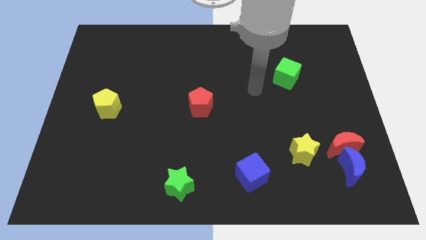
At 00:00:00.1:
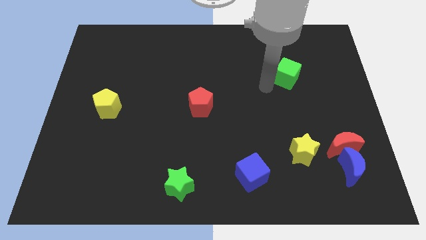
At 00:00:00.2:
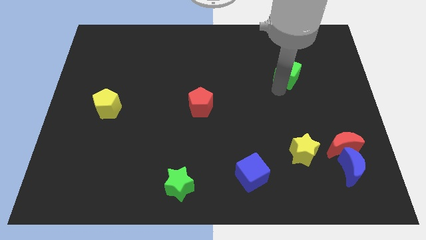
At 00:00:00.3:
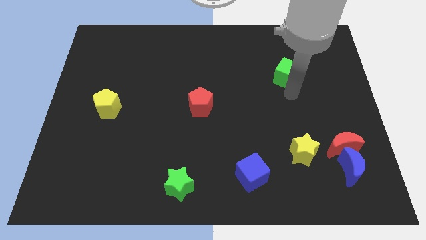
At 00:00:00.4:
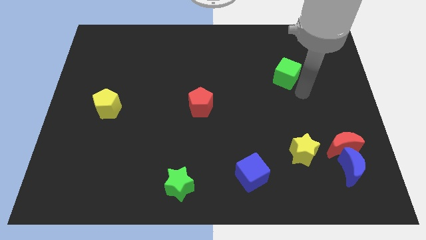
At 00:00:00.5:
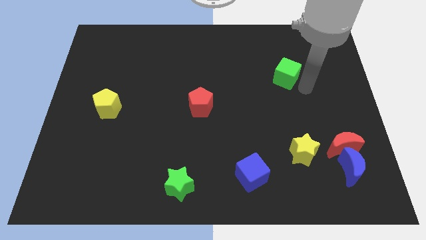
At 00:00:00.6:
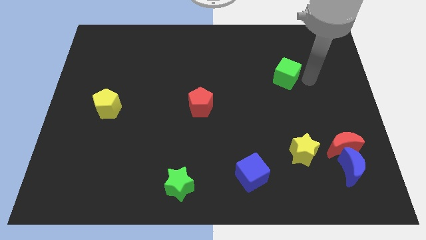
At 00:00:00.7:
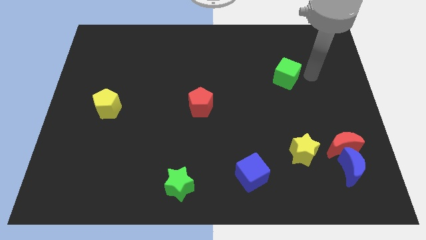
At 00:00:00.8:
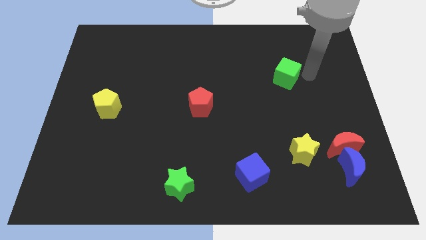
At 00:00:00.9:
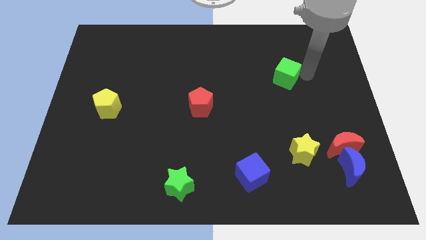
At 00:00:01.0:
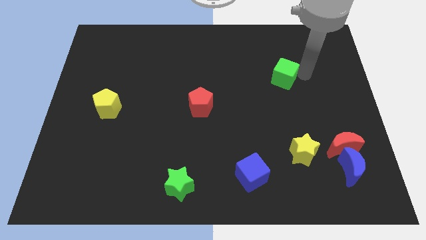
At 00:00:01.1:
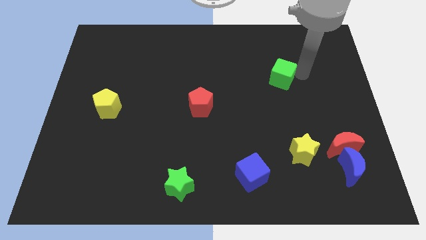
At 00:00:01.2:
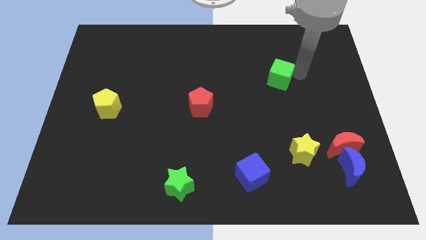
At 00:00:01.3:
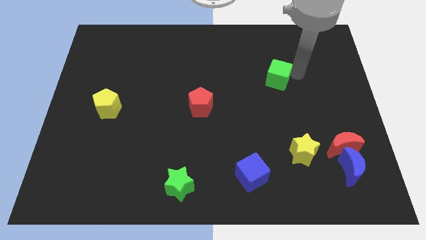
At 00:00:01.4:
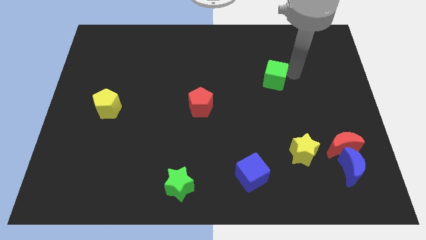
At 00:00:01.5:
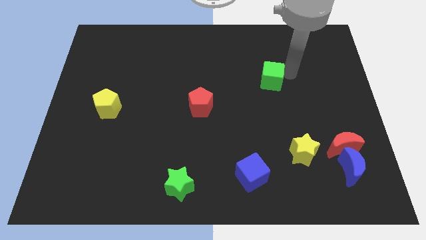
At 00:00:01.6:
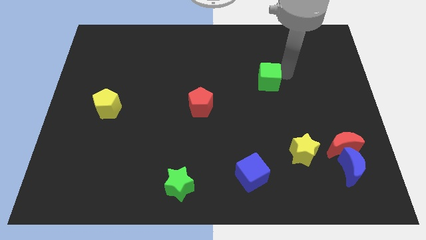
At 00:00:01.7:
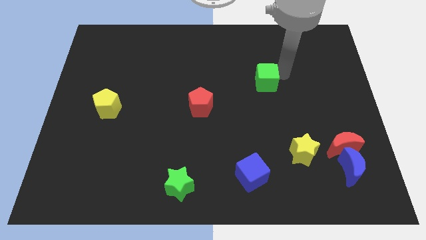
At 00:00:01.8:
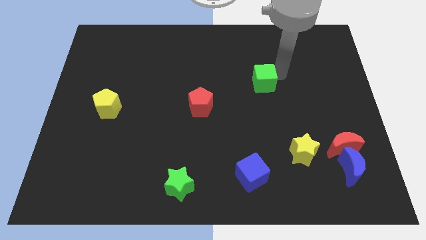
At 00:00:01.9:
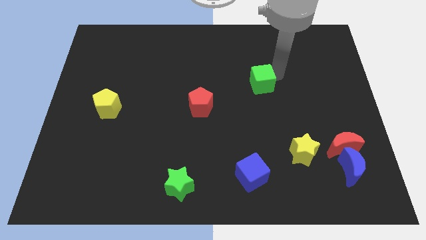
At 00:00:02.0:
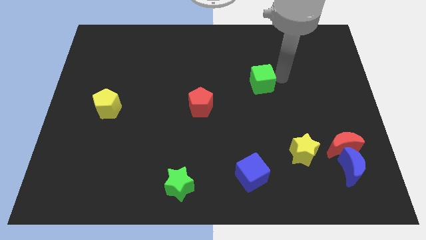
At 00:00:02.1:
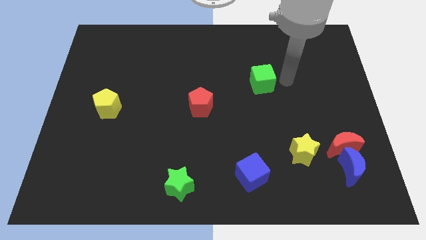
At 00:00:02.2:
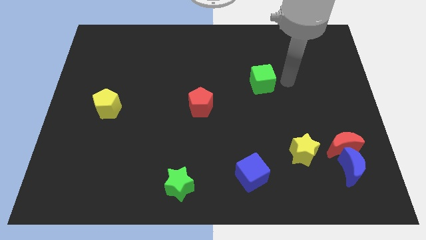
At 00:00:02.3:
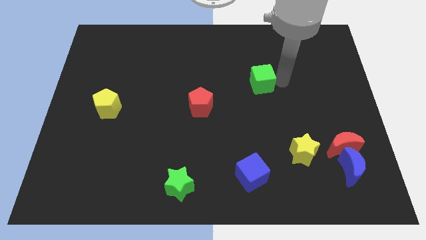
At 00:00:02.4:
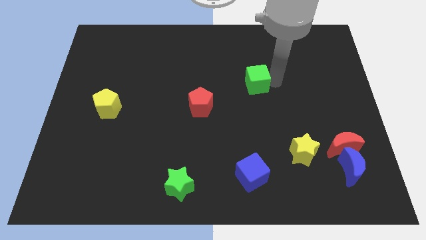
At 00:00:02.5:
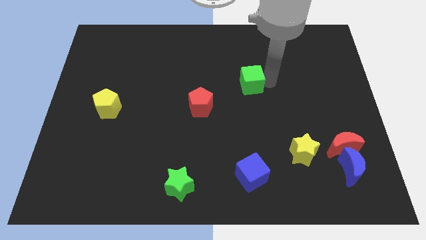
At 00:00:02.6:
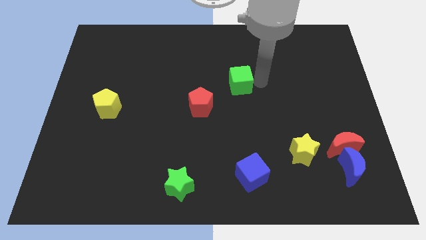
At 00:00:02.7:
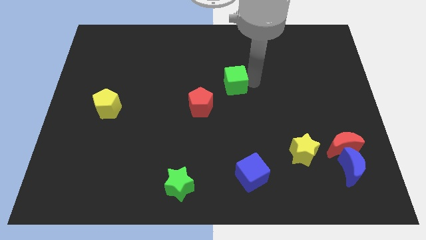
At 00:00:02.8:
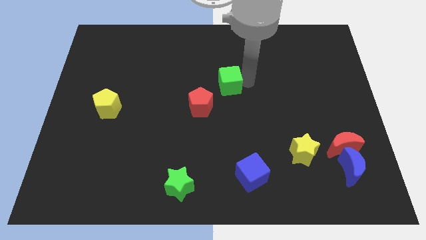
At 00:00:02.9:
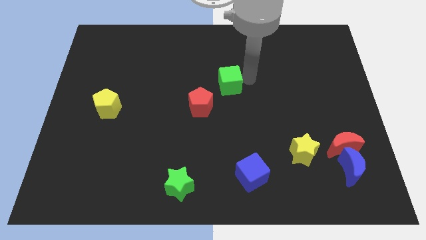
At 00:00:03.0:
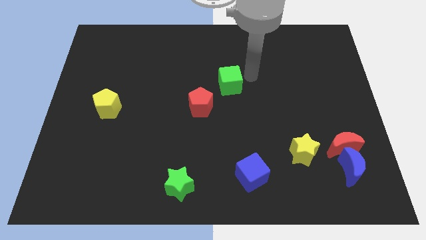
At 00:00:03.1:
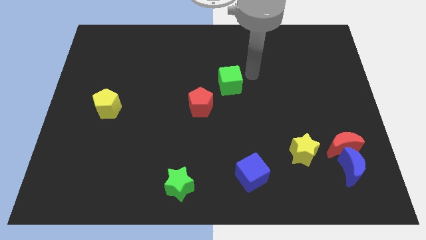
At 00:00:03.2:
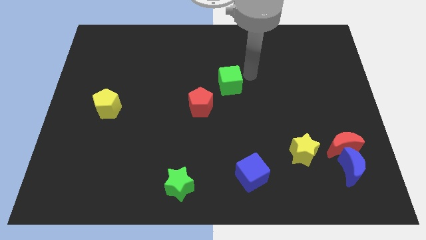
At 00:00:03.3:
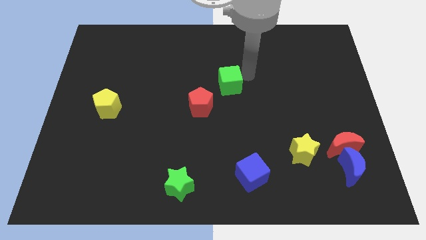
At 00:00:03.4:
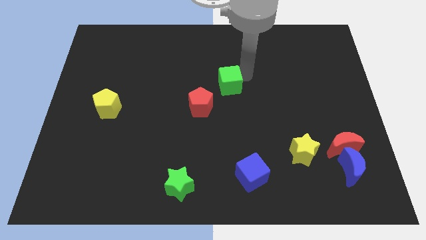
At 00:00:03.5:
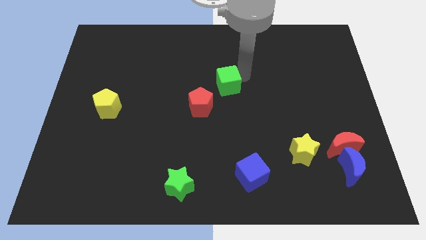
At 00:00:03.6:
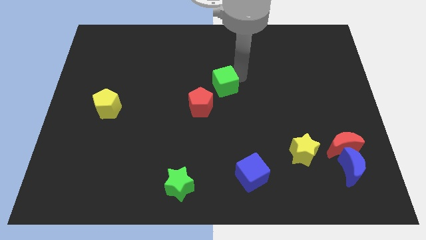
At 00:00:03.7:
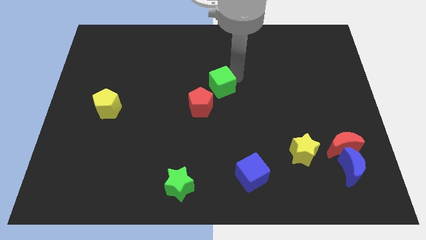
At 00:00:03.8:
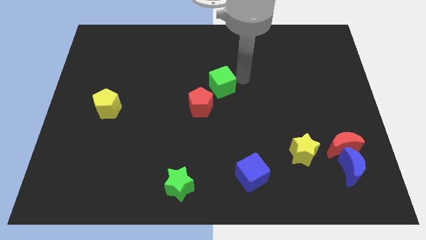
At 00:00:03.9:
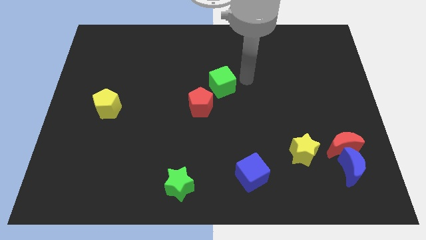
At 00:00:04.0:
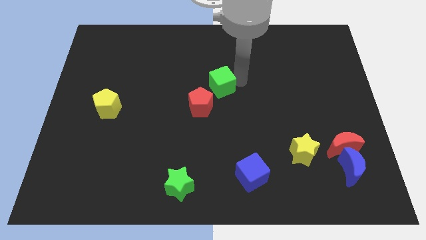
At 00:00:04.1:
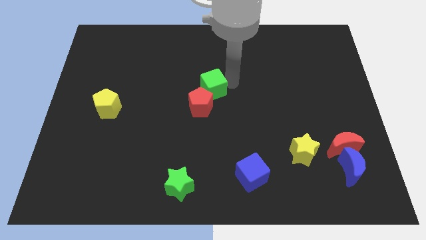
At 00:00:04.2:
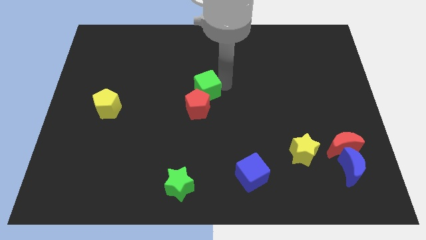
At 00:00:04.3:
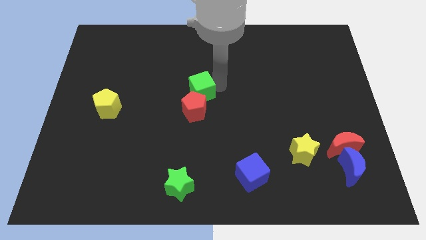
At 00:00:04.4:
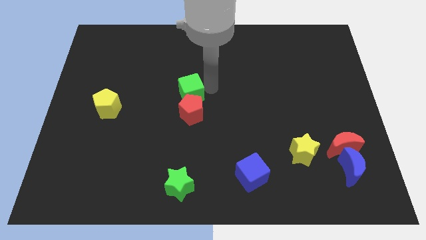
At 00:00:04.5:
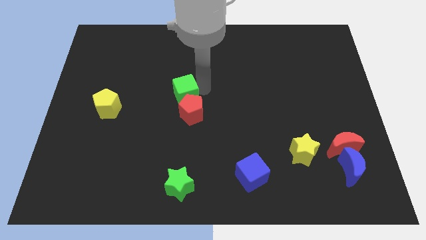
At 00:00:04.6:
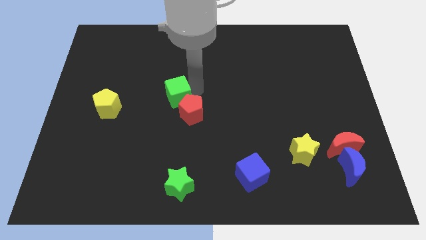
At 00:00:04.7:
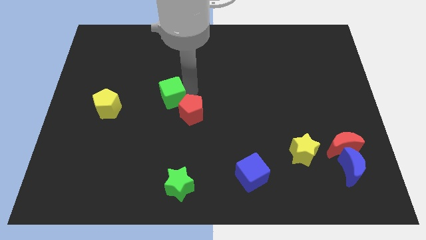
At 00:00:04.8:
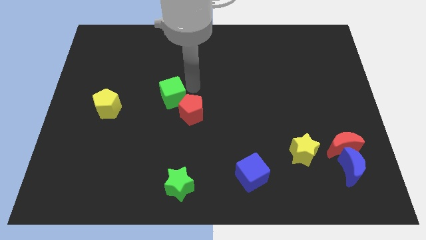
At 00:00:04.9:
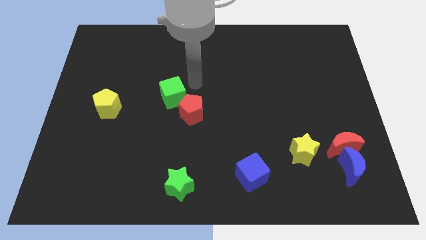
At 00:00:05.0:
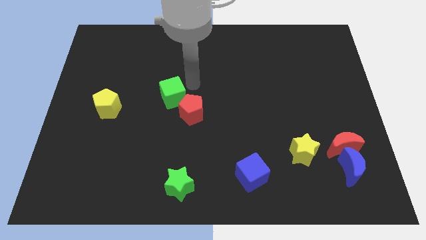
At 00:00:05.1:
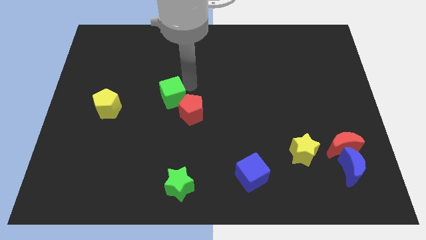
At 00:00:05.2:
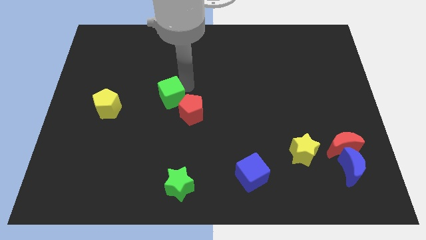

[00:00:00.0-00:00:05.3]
move the green cube right of the yellow pentagon

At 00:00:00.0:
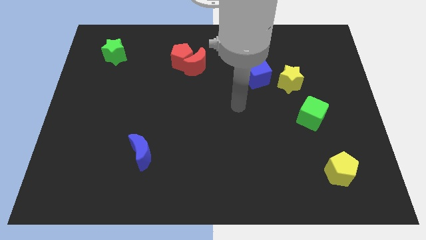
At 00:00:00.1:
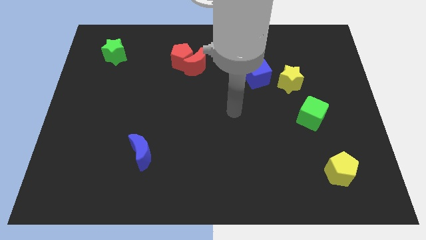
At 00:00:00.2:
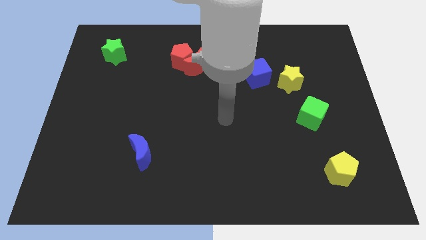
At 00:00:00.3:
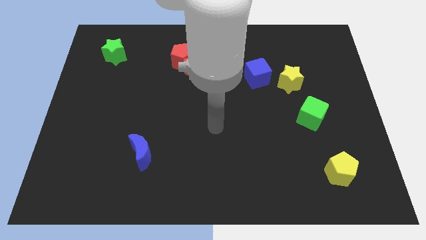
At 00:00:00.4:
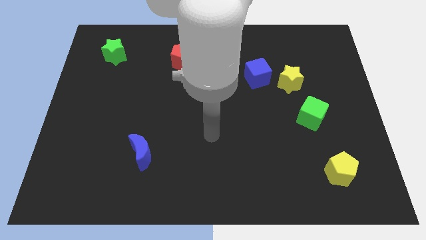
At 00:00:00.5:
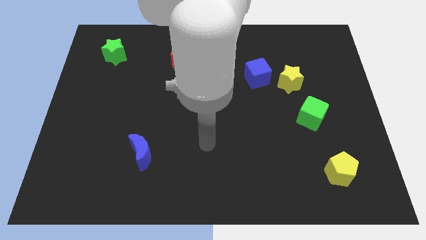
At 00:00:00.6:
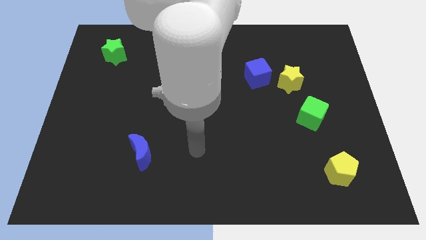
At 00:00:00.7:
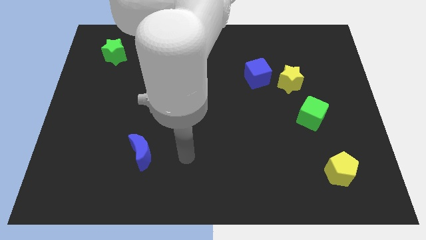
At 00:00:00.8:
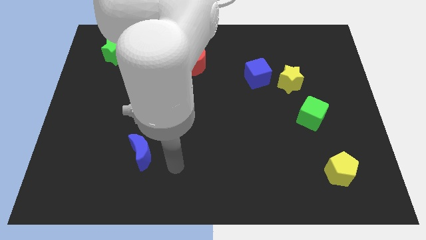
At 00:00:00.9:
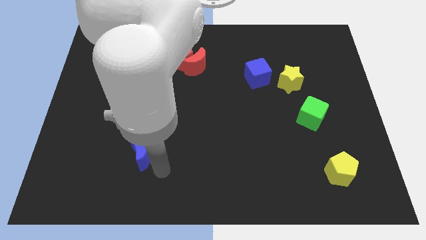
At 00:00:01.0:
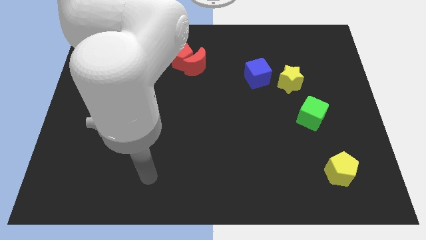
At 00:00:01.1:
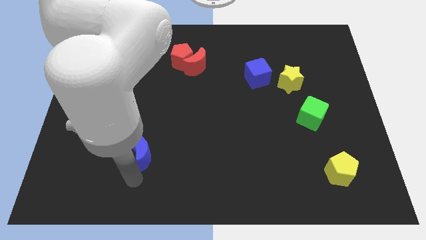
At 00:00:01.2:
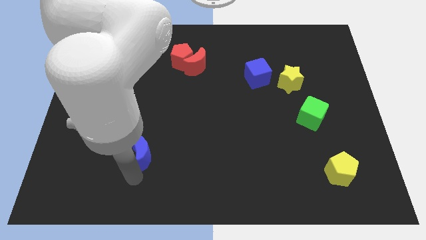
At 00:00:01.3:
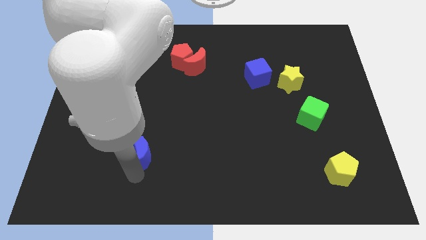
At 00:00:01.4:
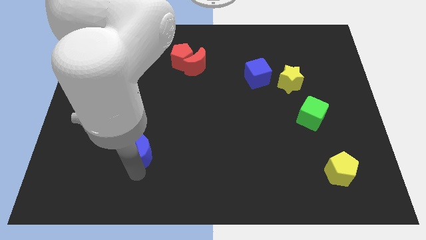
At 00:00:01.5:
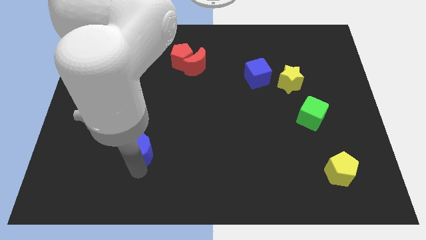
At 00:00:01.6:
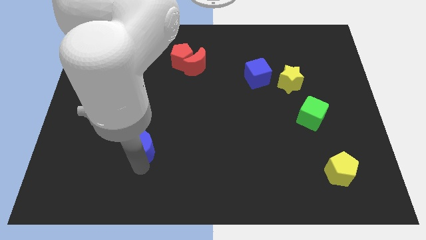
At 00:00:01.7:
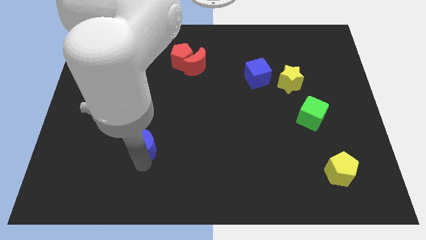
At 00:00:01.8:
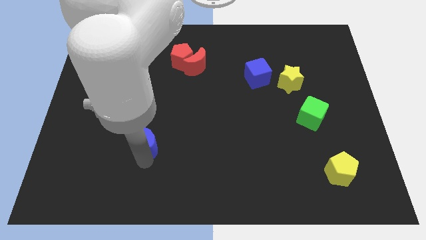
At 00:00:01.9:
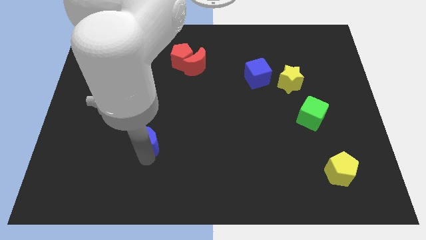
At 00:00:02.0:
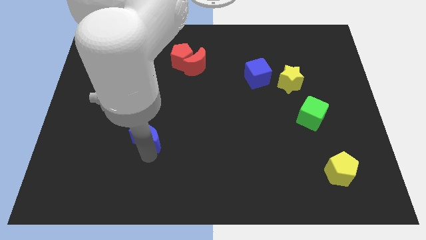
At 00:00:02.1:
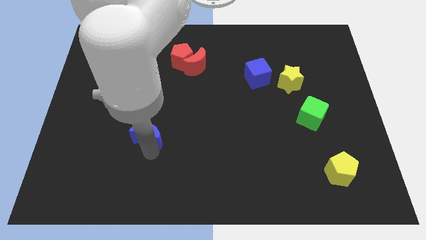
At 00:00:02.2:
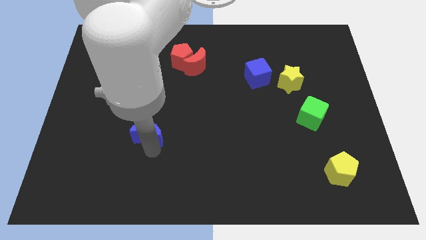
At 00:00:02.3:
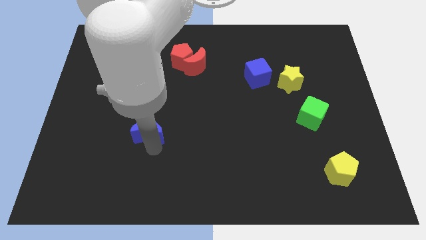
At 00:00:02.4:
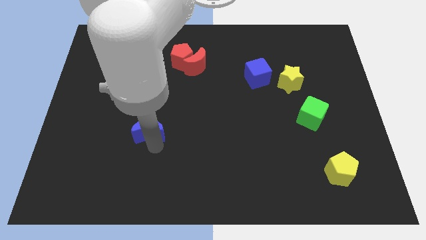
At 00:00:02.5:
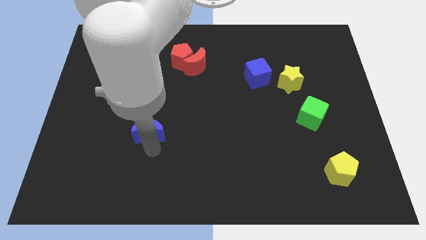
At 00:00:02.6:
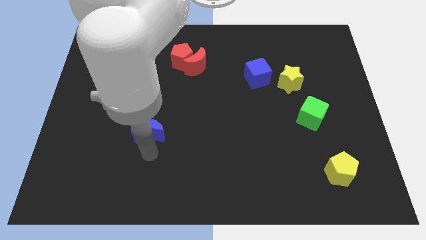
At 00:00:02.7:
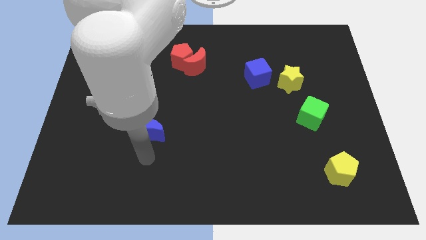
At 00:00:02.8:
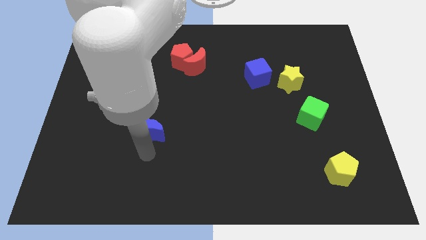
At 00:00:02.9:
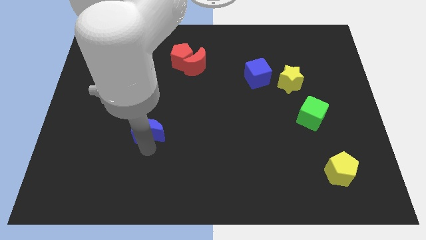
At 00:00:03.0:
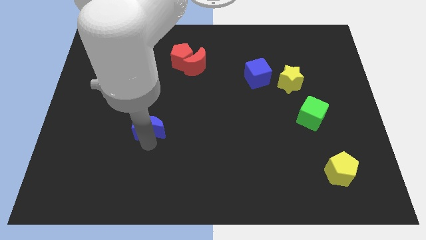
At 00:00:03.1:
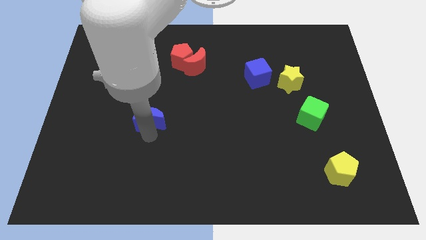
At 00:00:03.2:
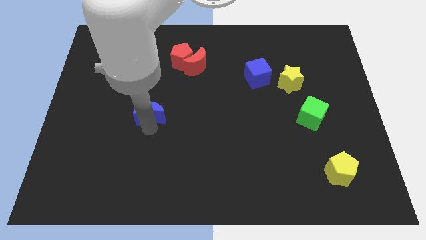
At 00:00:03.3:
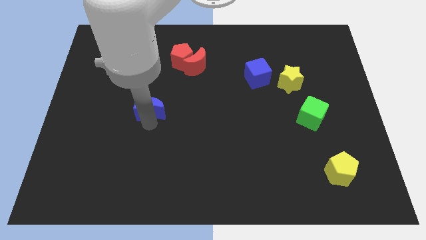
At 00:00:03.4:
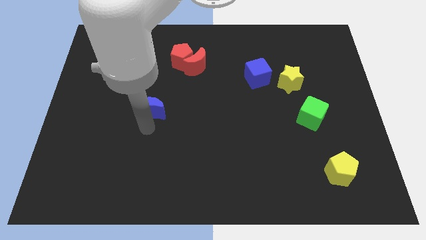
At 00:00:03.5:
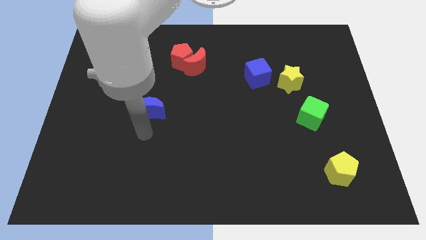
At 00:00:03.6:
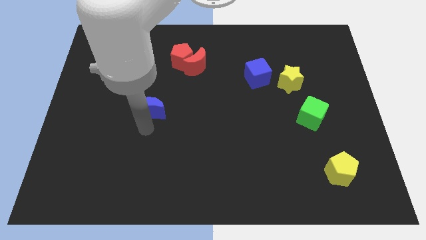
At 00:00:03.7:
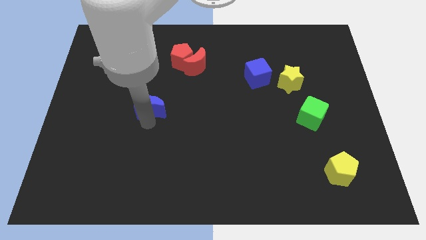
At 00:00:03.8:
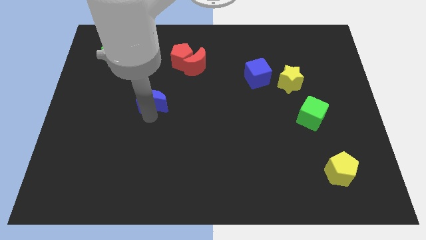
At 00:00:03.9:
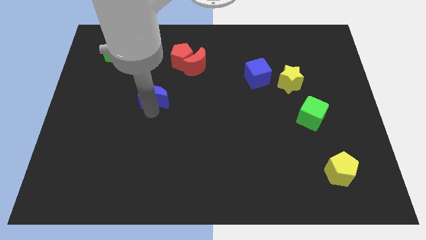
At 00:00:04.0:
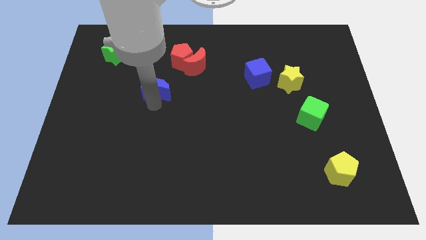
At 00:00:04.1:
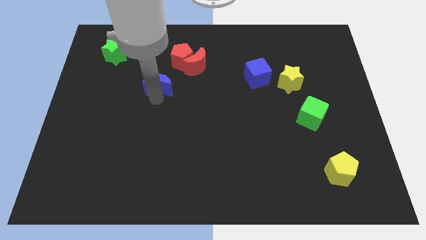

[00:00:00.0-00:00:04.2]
put the blue moon to the bottom left side of the red pentagon
